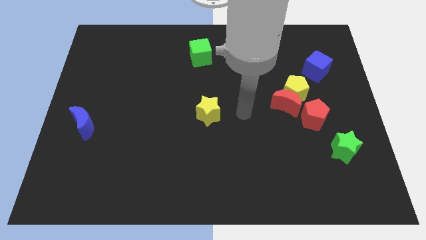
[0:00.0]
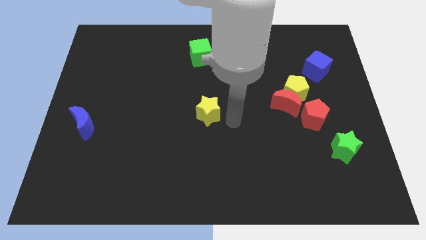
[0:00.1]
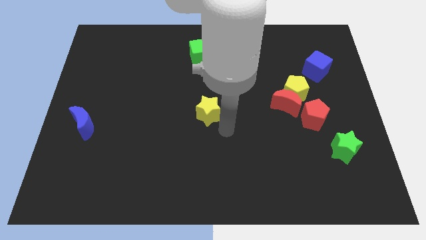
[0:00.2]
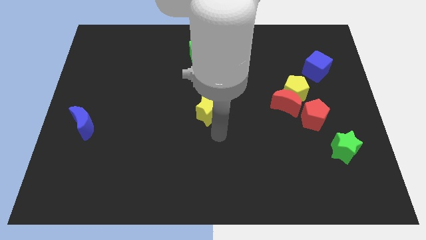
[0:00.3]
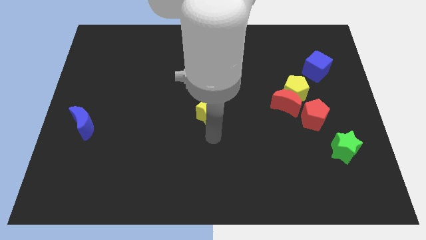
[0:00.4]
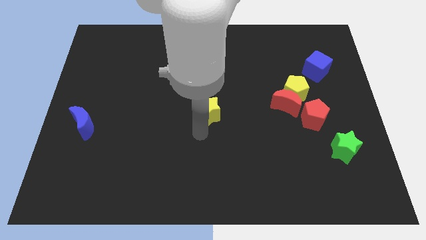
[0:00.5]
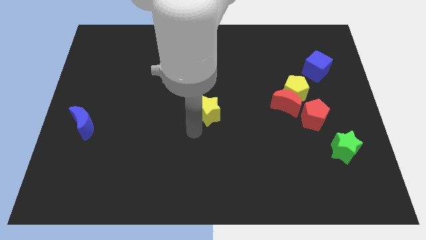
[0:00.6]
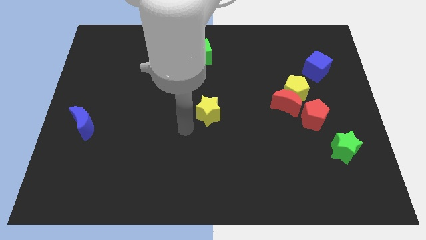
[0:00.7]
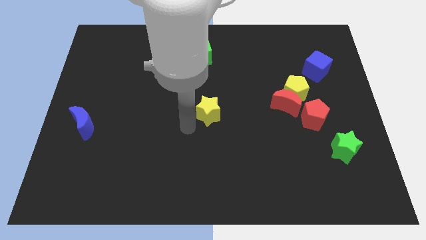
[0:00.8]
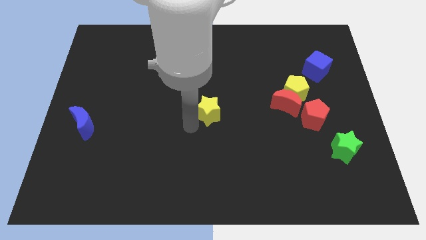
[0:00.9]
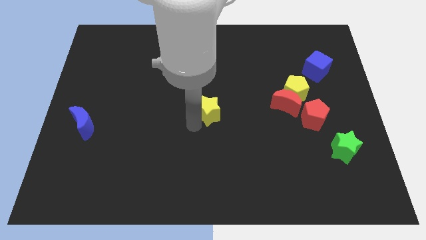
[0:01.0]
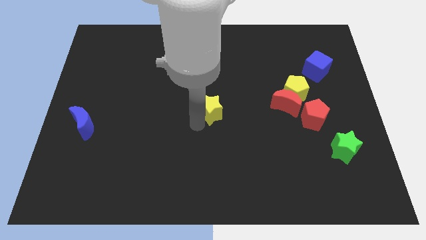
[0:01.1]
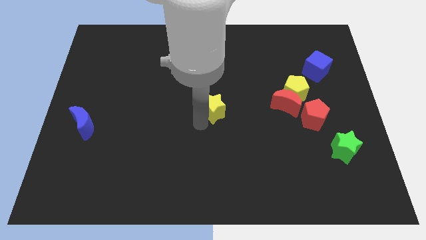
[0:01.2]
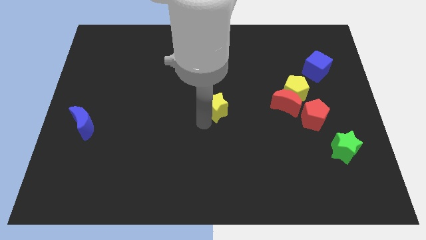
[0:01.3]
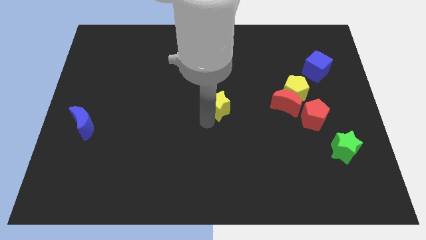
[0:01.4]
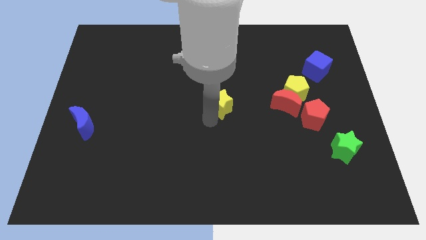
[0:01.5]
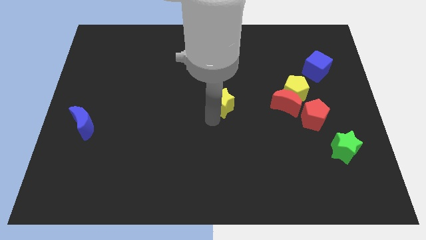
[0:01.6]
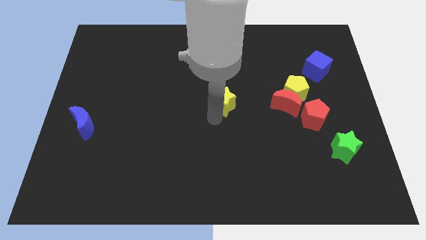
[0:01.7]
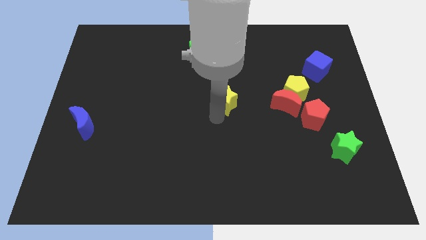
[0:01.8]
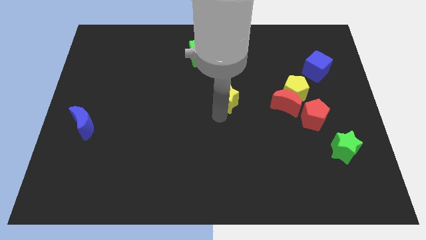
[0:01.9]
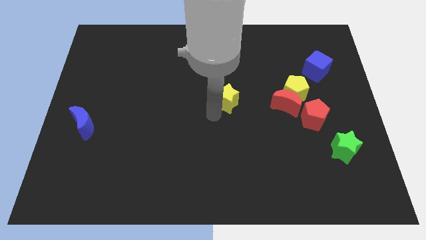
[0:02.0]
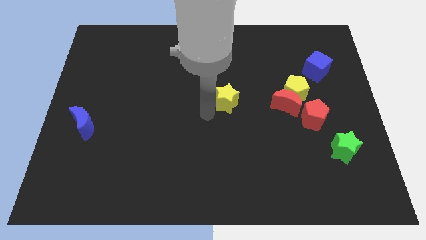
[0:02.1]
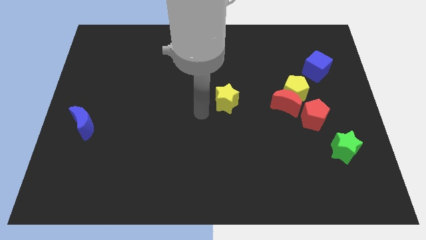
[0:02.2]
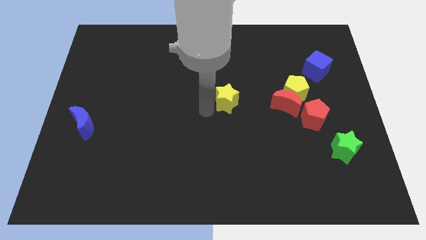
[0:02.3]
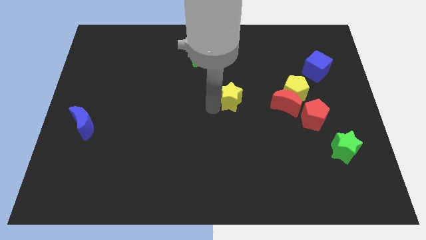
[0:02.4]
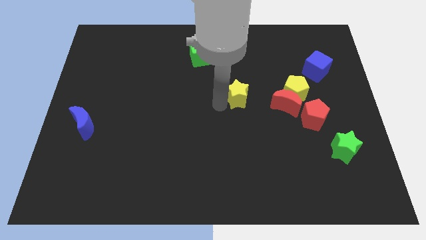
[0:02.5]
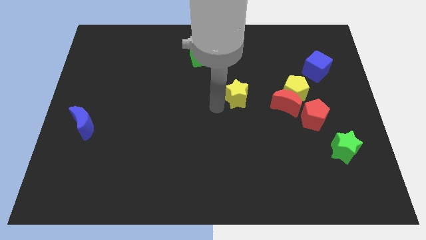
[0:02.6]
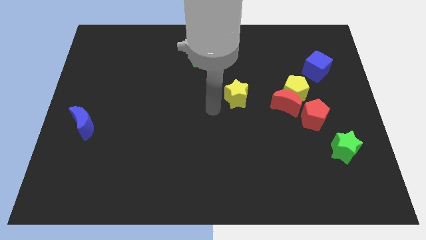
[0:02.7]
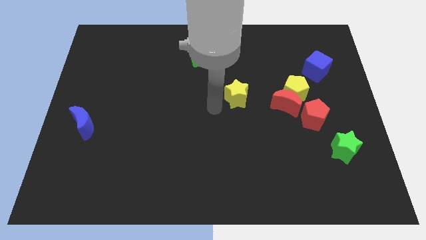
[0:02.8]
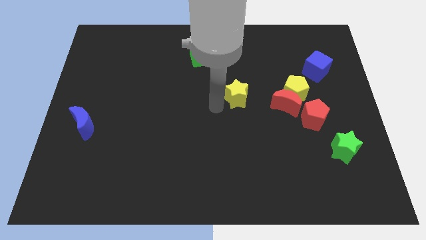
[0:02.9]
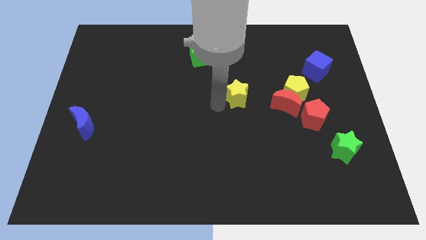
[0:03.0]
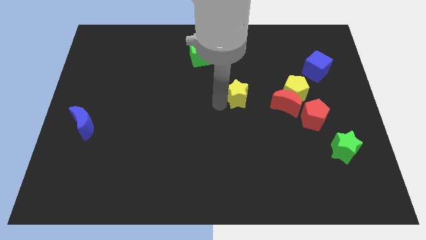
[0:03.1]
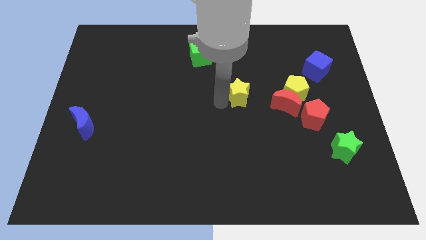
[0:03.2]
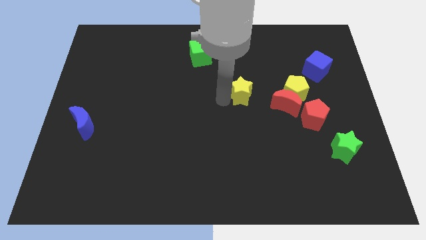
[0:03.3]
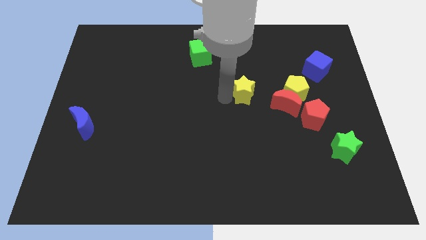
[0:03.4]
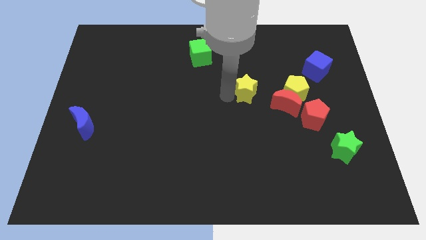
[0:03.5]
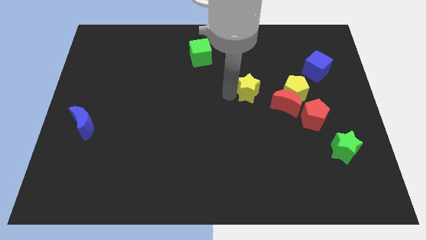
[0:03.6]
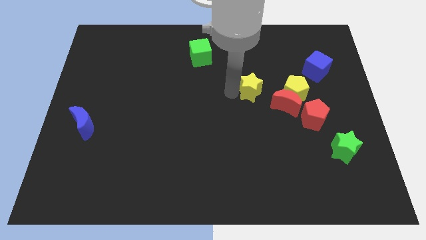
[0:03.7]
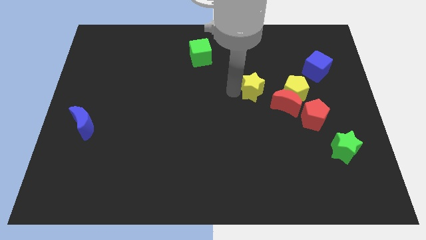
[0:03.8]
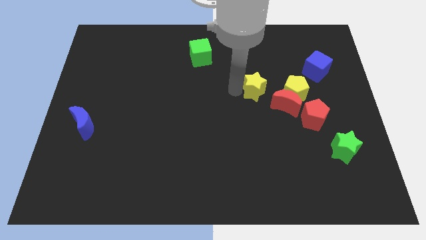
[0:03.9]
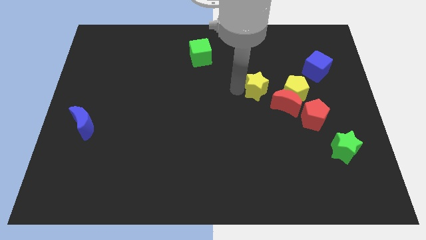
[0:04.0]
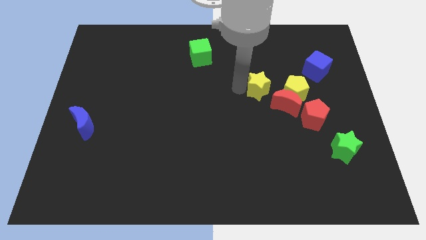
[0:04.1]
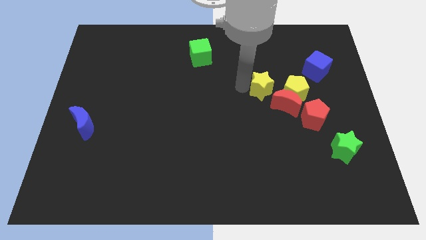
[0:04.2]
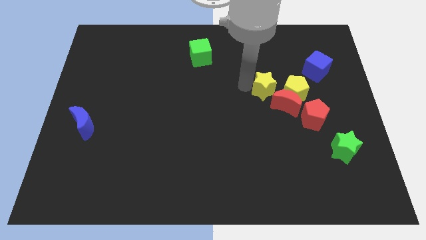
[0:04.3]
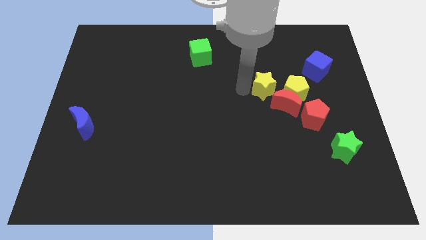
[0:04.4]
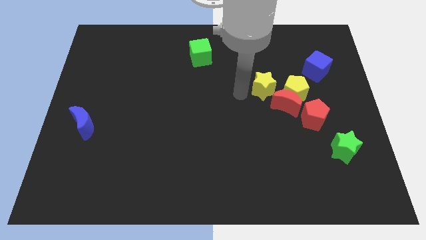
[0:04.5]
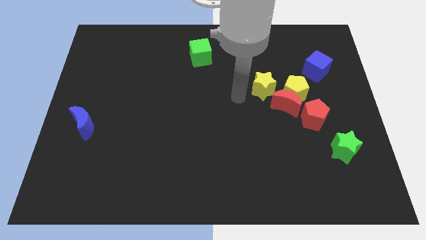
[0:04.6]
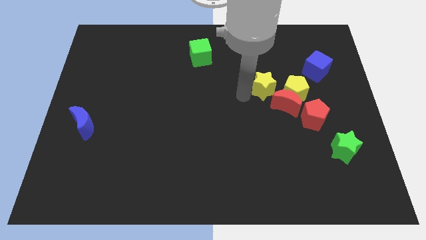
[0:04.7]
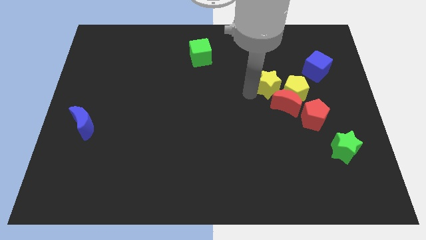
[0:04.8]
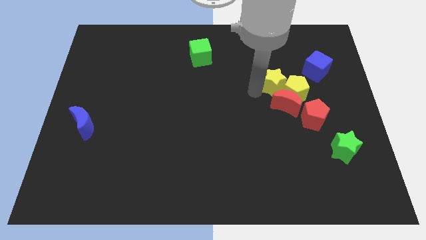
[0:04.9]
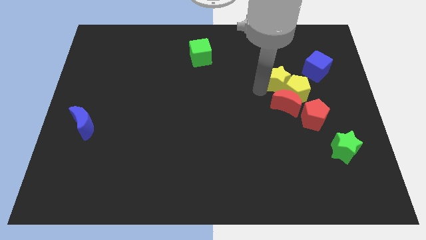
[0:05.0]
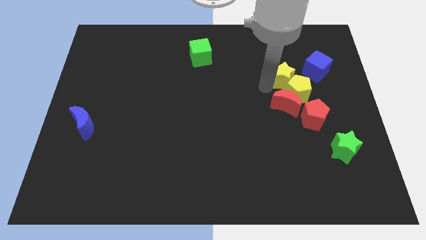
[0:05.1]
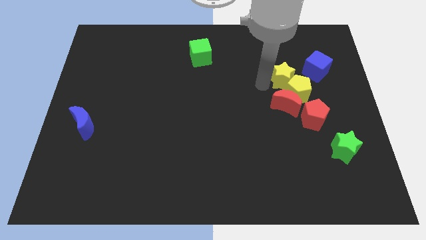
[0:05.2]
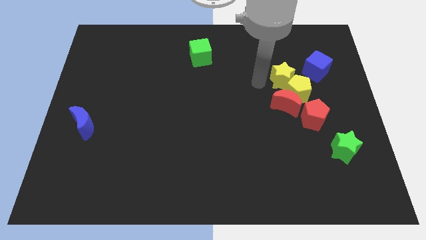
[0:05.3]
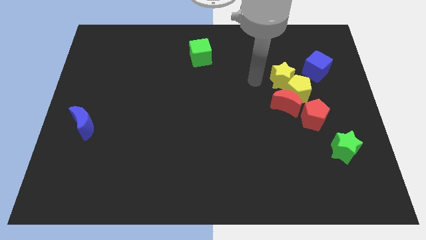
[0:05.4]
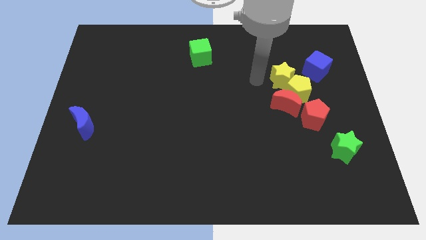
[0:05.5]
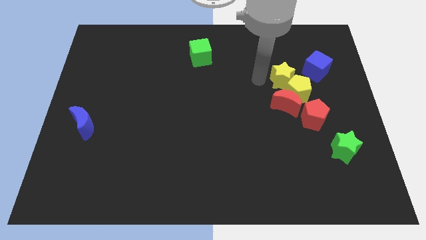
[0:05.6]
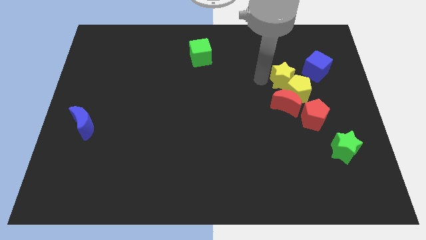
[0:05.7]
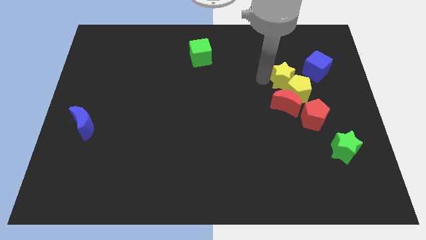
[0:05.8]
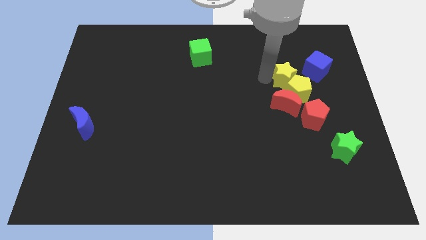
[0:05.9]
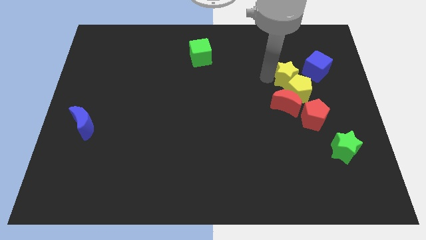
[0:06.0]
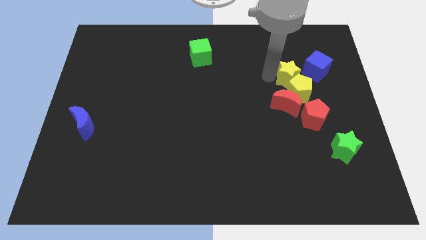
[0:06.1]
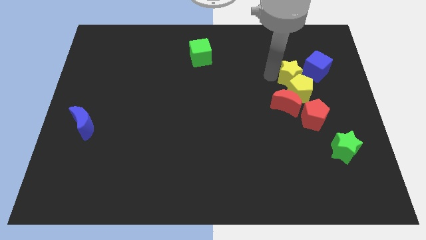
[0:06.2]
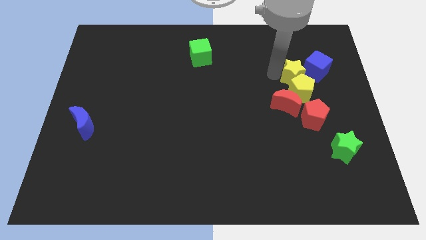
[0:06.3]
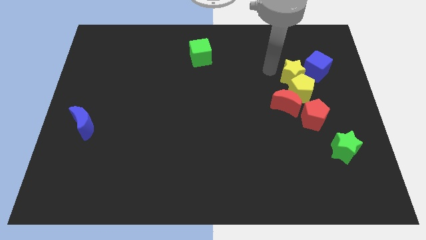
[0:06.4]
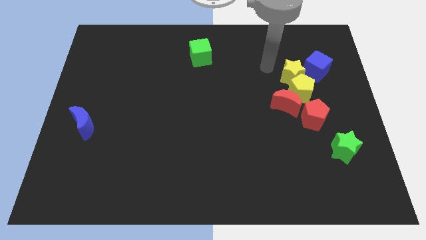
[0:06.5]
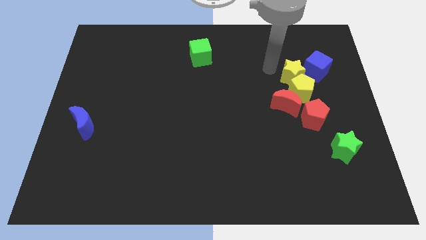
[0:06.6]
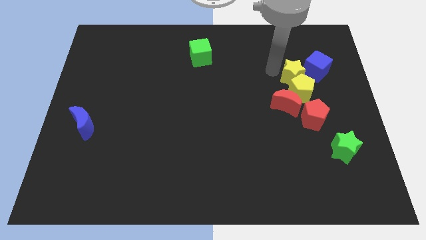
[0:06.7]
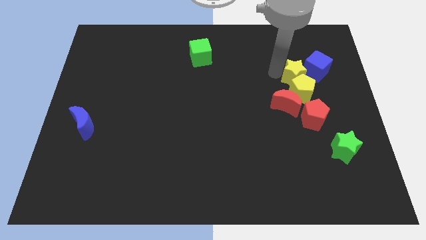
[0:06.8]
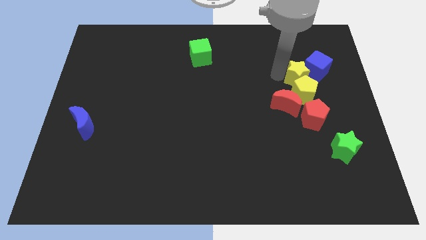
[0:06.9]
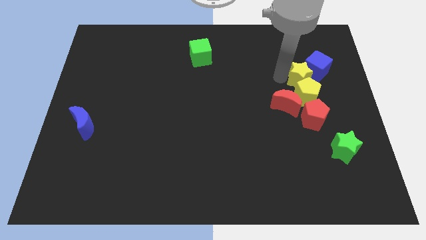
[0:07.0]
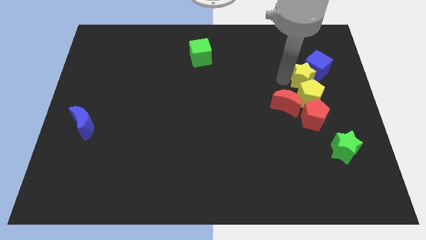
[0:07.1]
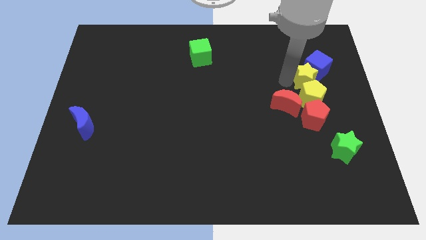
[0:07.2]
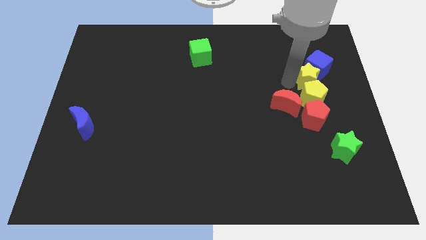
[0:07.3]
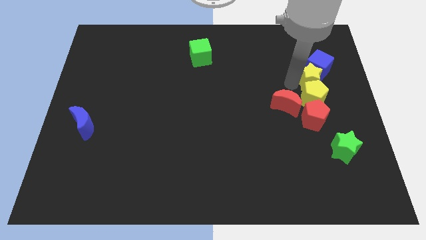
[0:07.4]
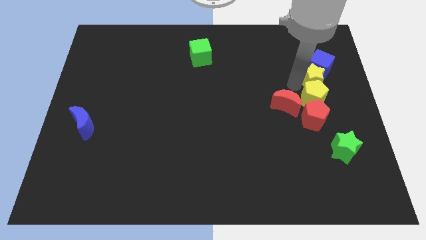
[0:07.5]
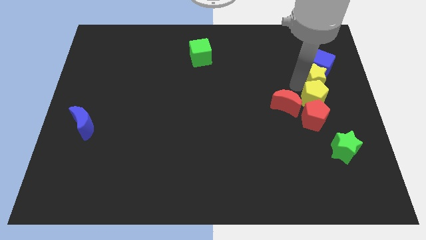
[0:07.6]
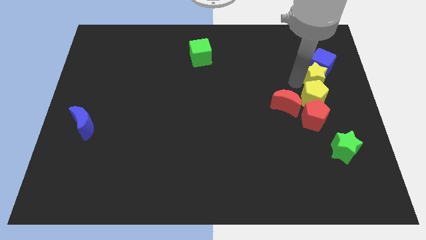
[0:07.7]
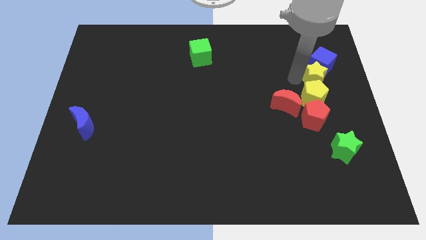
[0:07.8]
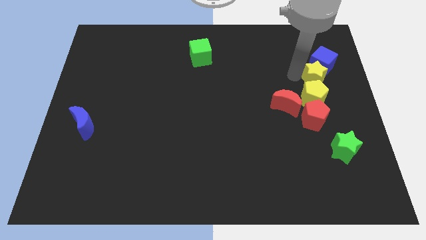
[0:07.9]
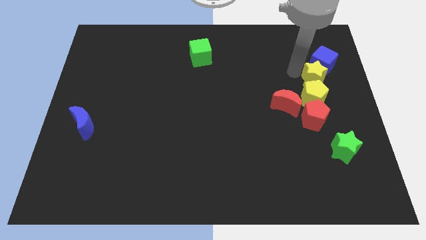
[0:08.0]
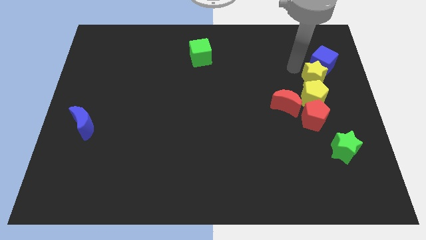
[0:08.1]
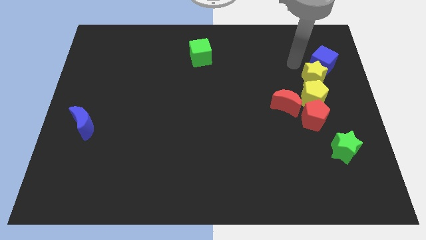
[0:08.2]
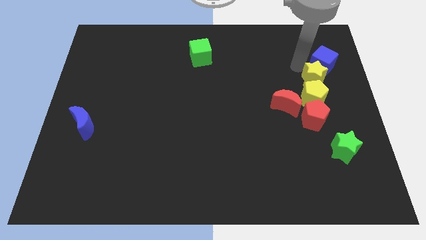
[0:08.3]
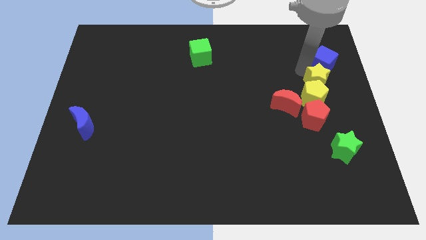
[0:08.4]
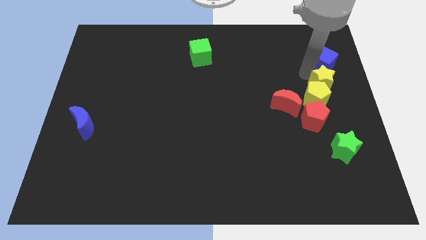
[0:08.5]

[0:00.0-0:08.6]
move the yellow star to the right side of the board
